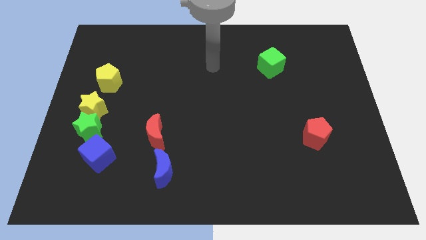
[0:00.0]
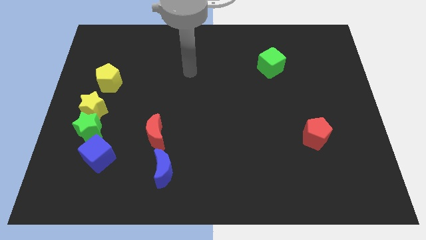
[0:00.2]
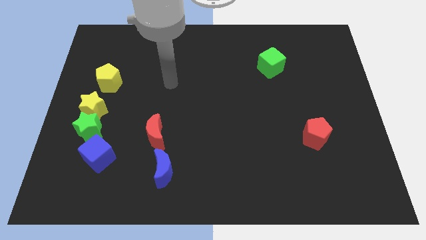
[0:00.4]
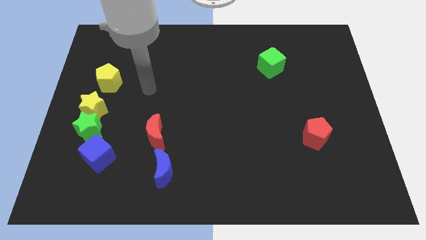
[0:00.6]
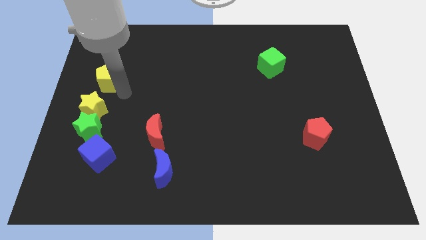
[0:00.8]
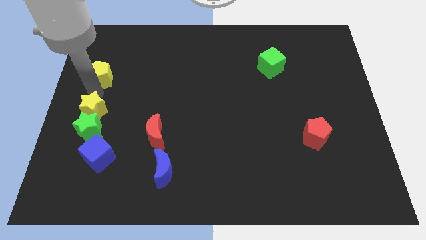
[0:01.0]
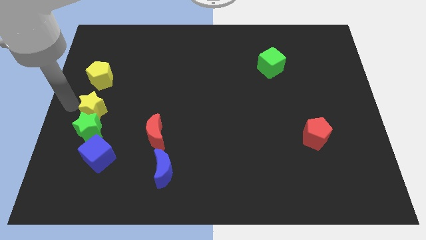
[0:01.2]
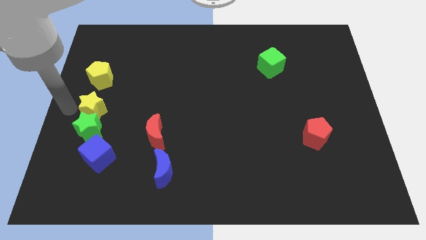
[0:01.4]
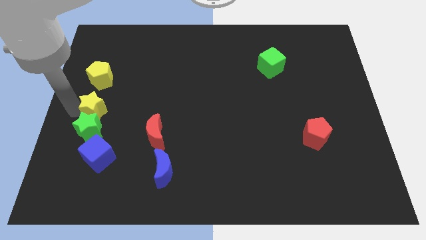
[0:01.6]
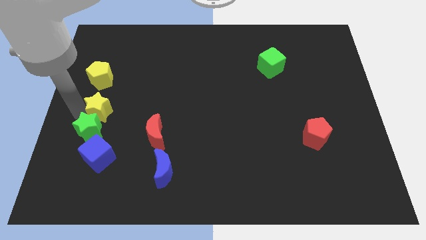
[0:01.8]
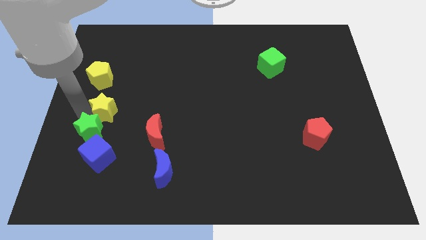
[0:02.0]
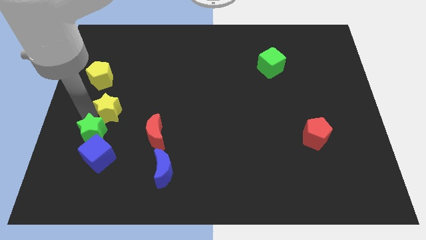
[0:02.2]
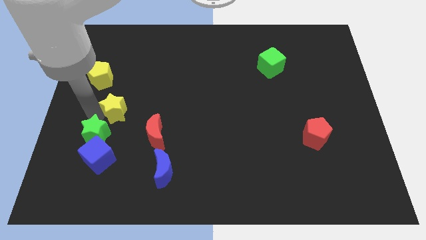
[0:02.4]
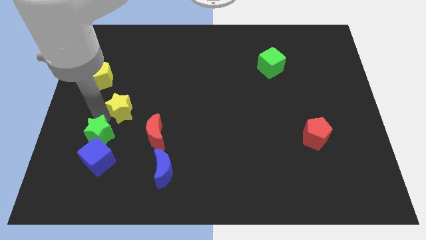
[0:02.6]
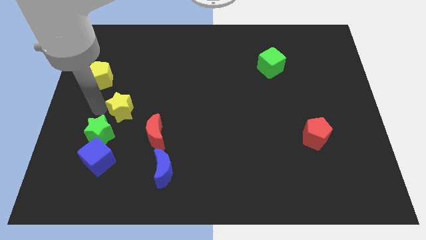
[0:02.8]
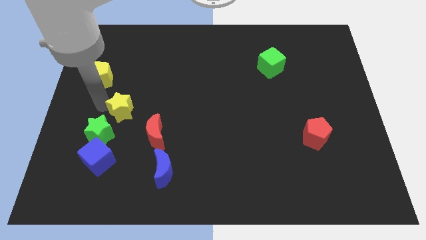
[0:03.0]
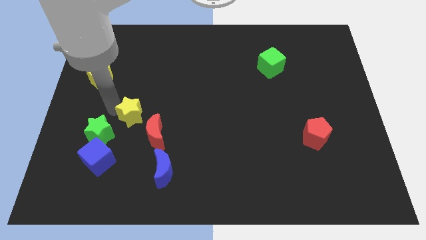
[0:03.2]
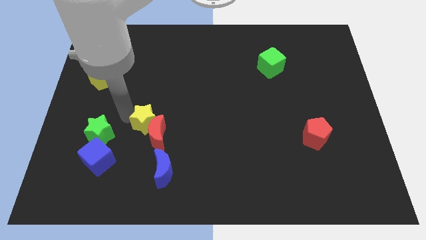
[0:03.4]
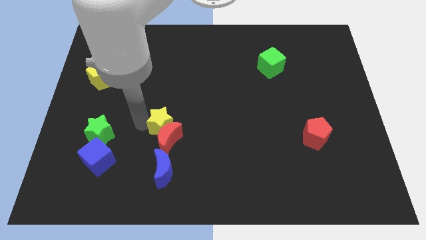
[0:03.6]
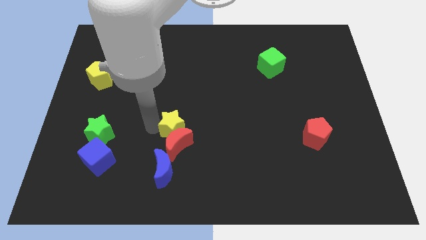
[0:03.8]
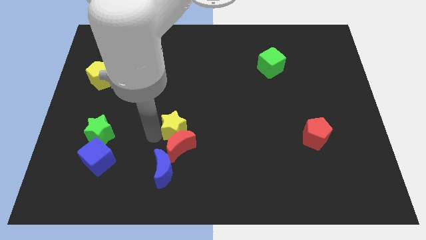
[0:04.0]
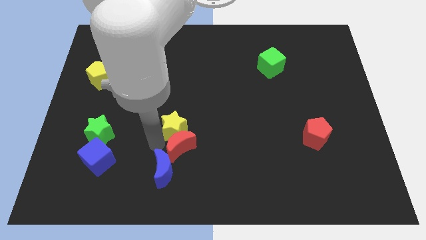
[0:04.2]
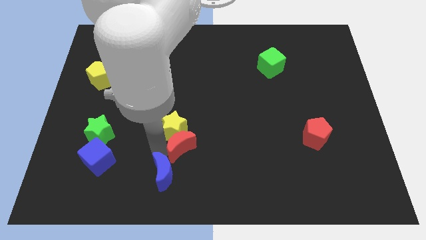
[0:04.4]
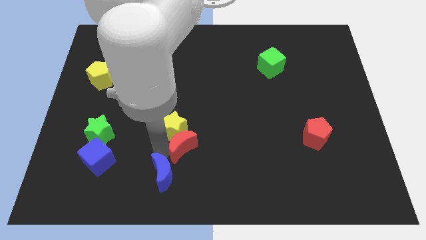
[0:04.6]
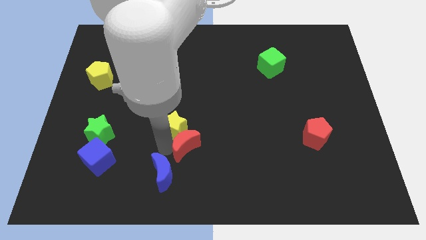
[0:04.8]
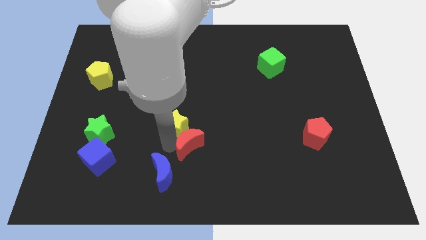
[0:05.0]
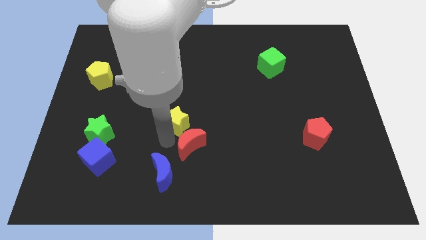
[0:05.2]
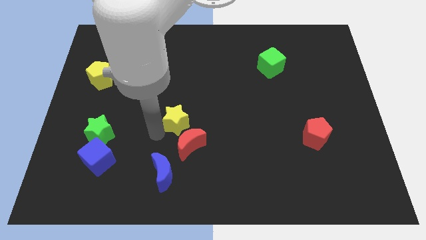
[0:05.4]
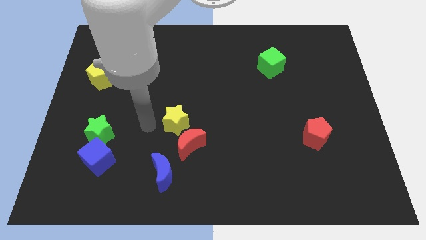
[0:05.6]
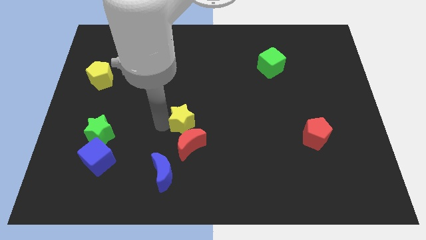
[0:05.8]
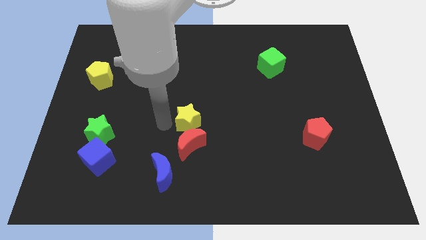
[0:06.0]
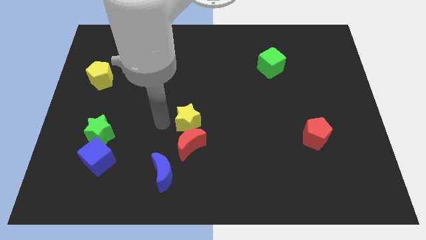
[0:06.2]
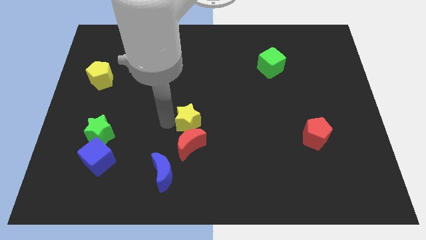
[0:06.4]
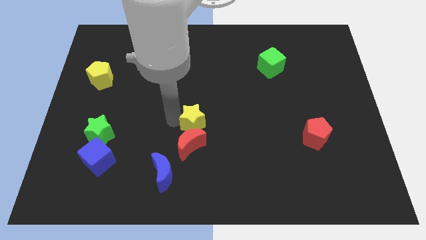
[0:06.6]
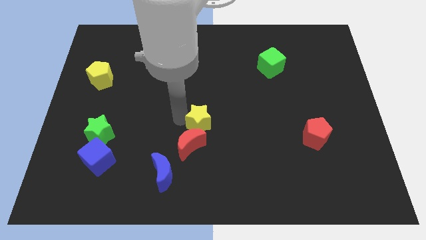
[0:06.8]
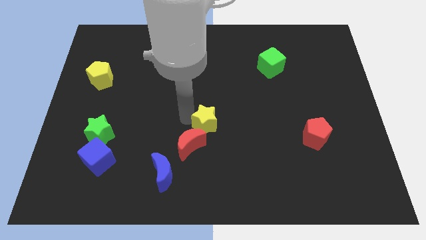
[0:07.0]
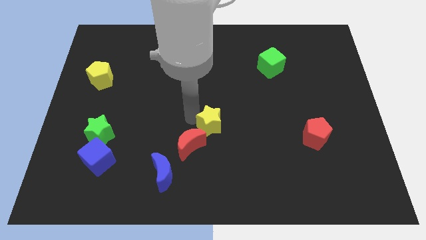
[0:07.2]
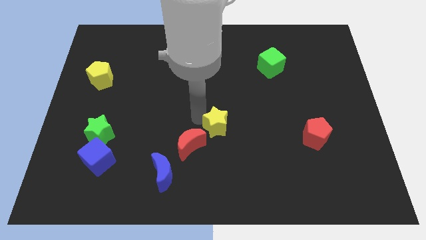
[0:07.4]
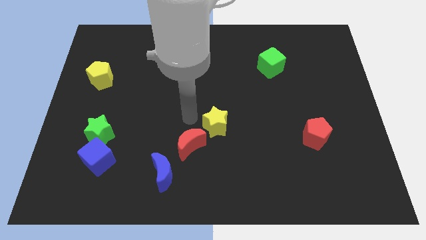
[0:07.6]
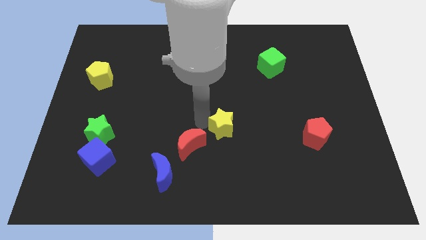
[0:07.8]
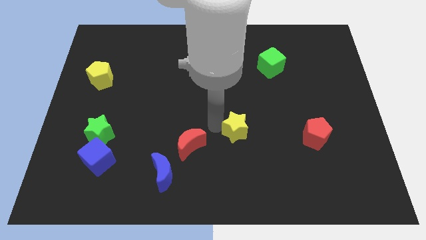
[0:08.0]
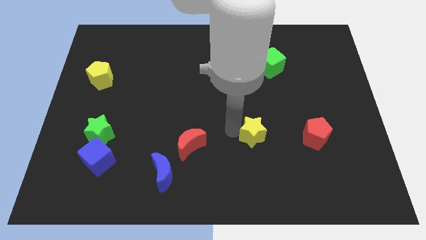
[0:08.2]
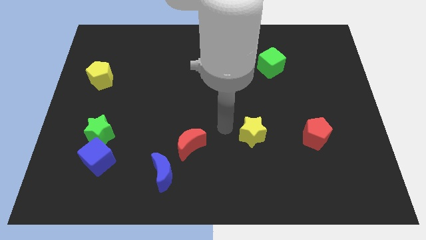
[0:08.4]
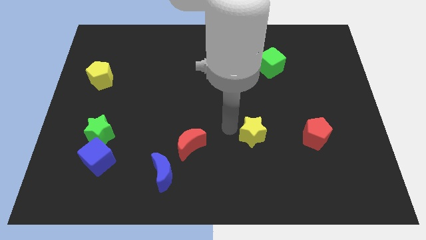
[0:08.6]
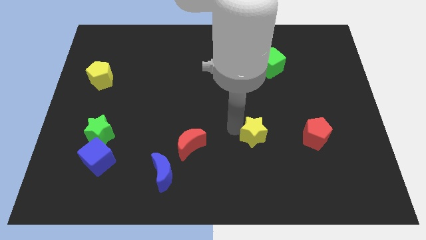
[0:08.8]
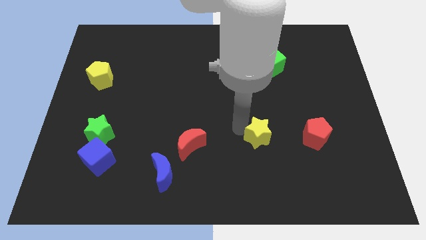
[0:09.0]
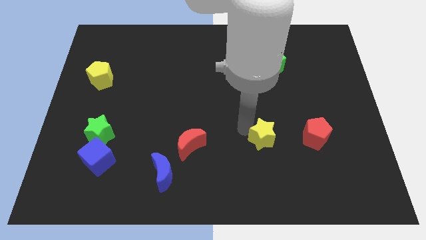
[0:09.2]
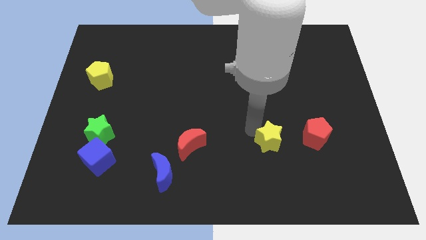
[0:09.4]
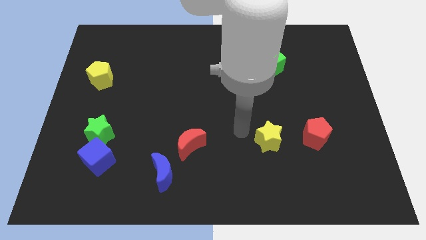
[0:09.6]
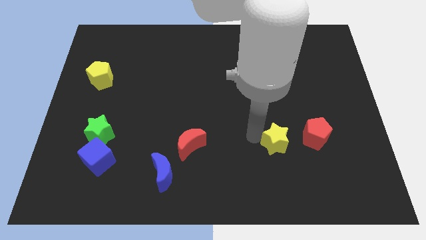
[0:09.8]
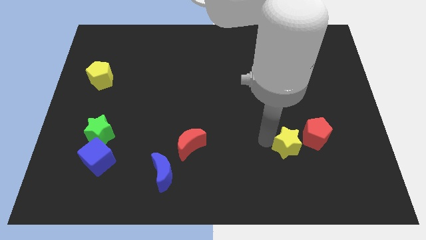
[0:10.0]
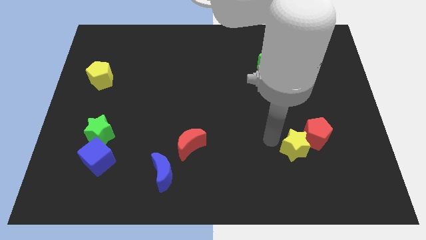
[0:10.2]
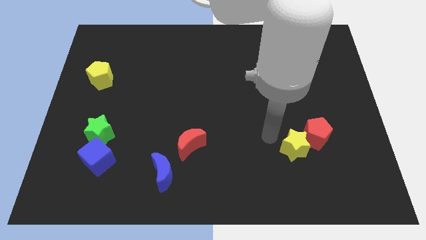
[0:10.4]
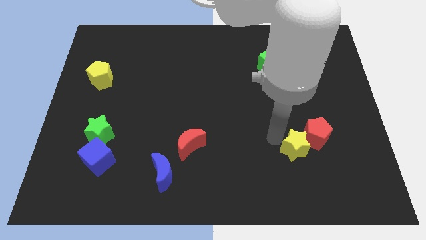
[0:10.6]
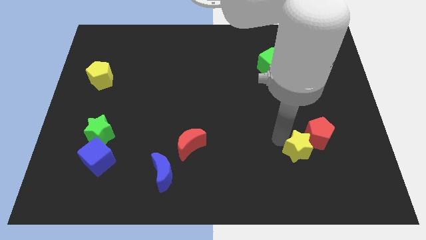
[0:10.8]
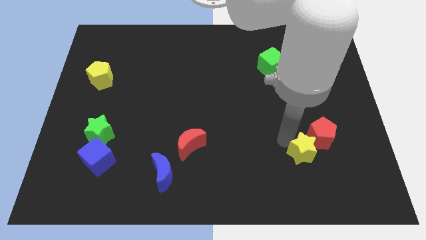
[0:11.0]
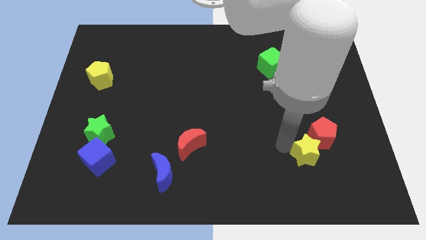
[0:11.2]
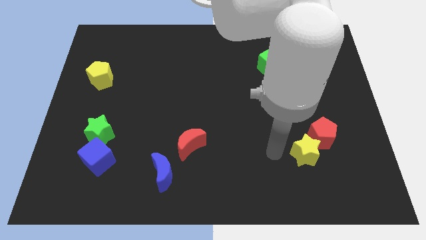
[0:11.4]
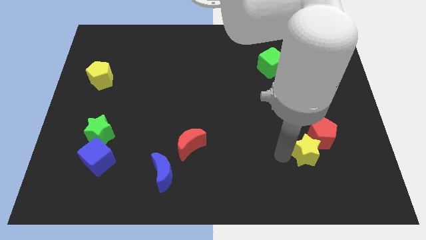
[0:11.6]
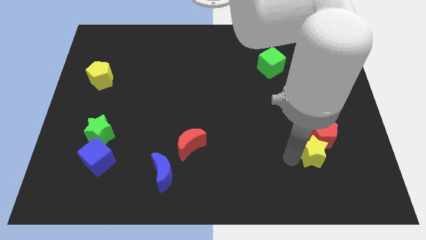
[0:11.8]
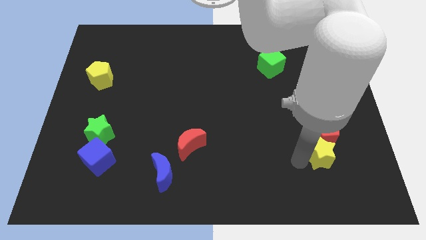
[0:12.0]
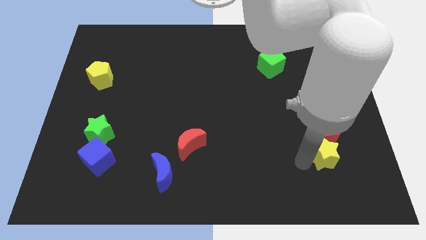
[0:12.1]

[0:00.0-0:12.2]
push the yellow star to the bottom right side of the red pentagon

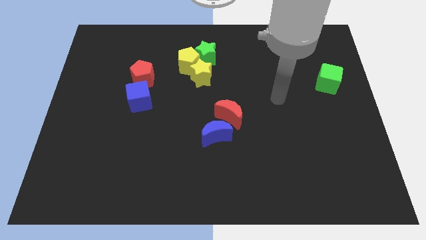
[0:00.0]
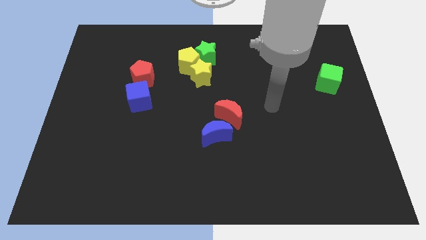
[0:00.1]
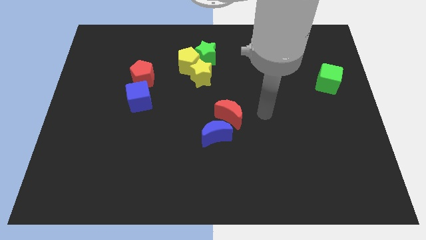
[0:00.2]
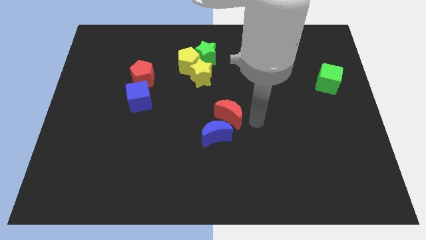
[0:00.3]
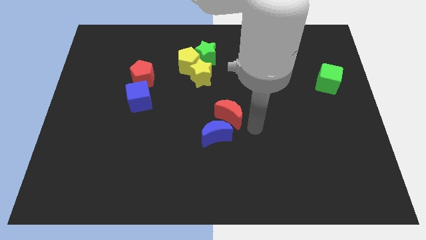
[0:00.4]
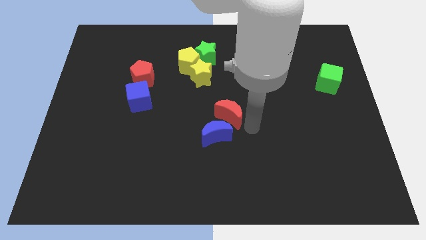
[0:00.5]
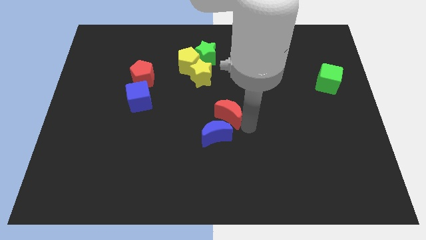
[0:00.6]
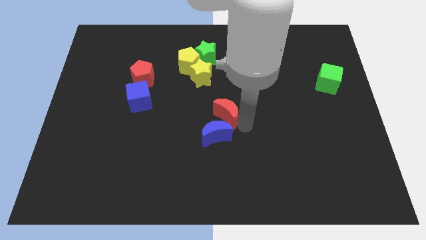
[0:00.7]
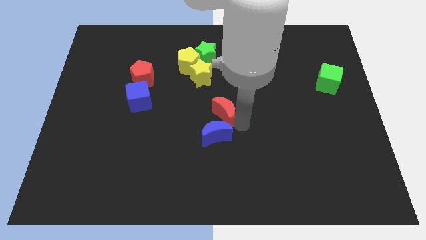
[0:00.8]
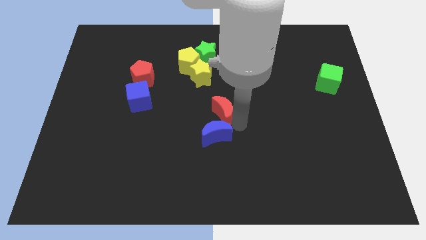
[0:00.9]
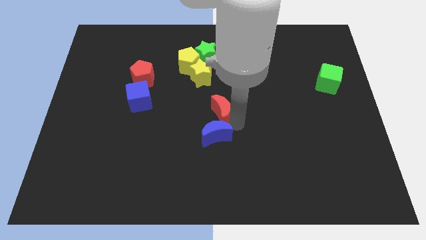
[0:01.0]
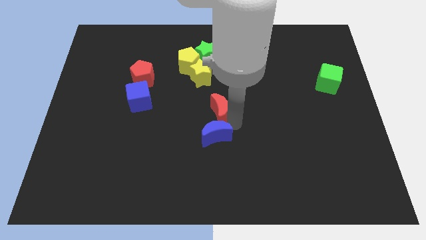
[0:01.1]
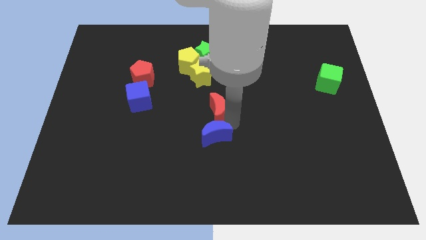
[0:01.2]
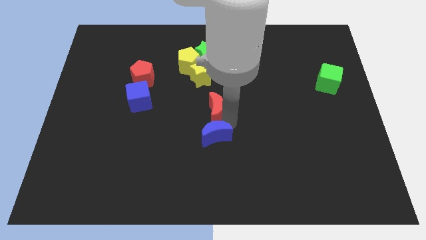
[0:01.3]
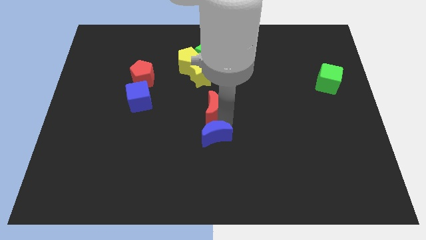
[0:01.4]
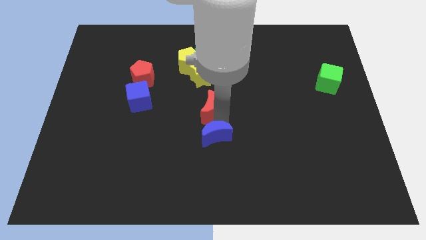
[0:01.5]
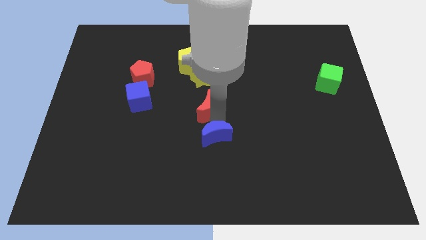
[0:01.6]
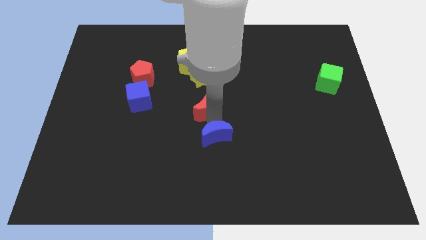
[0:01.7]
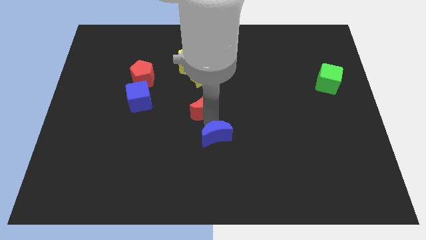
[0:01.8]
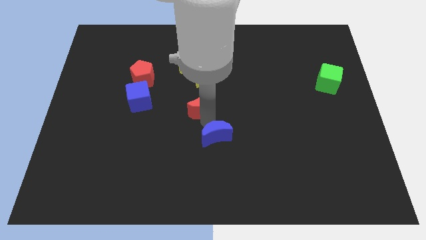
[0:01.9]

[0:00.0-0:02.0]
push the red moon to the bottom side of the yellow pentagon
